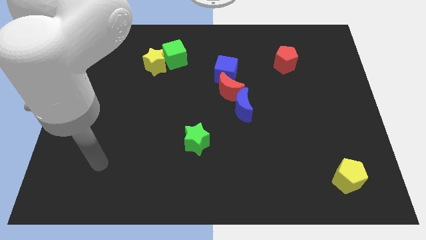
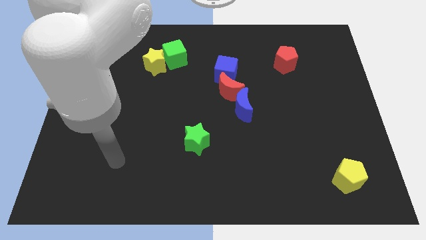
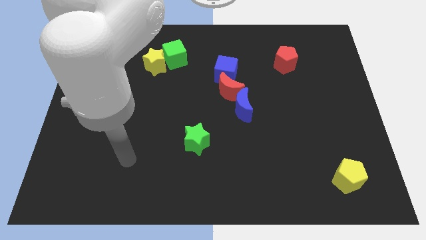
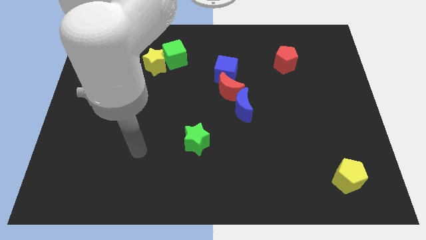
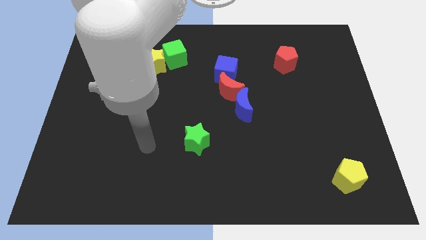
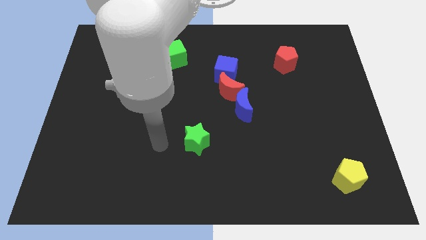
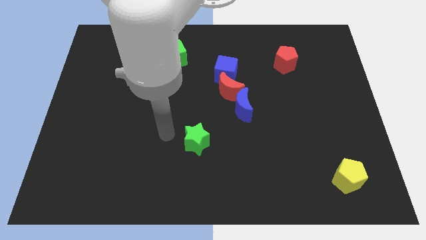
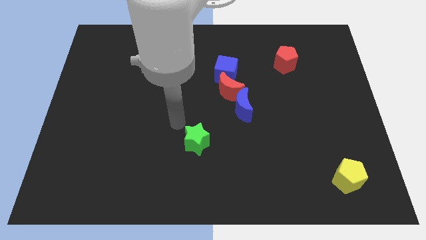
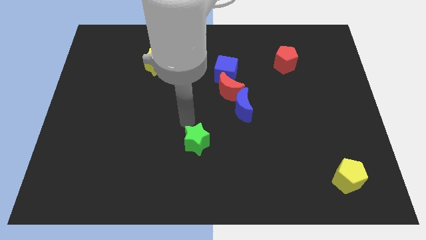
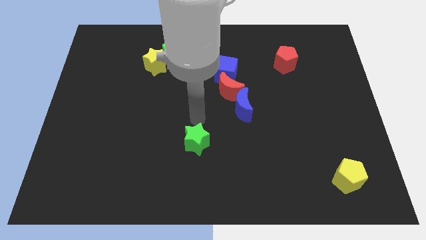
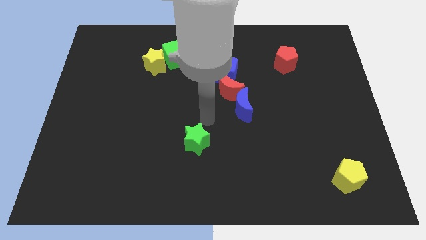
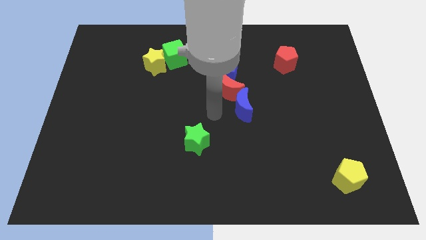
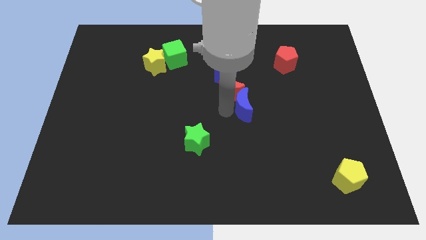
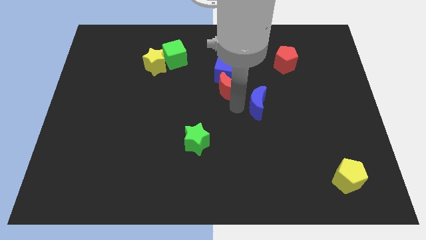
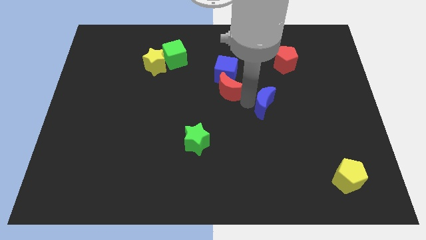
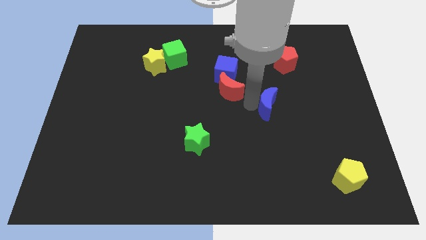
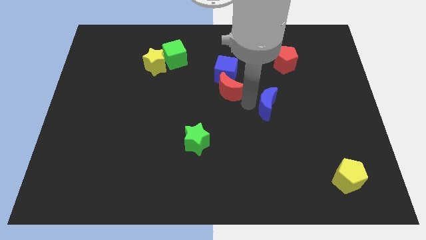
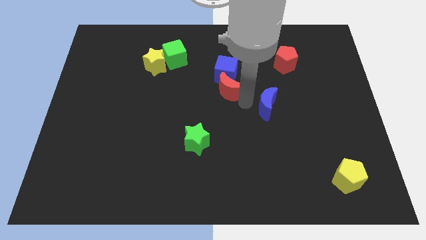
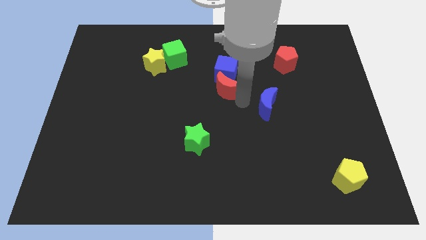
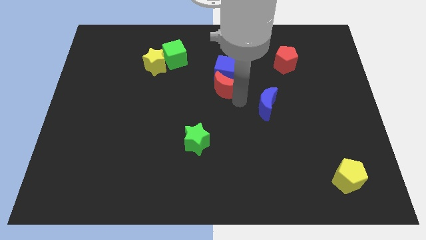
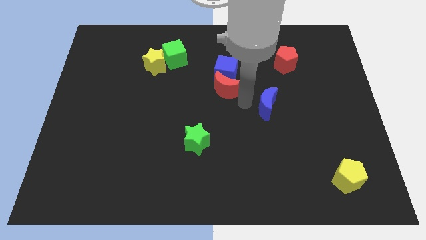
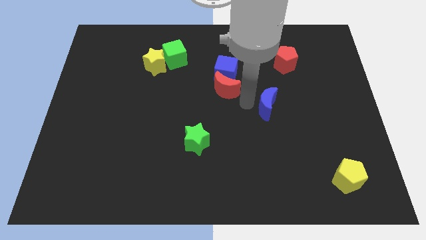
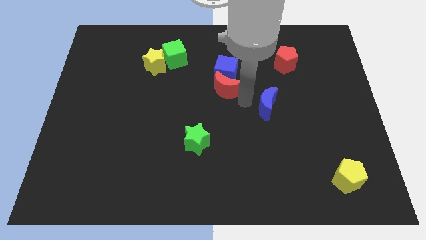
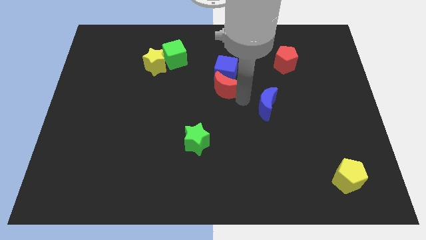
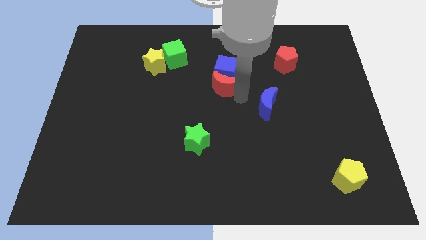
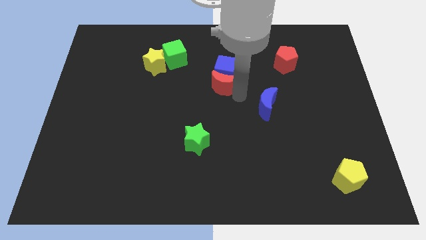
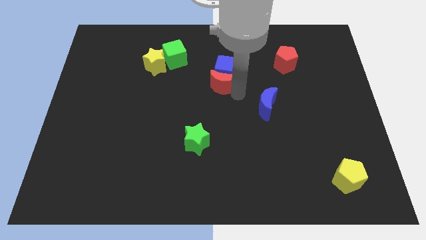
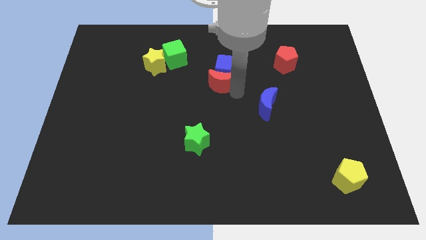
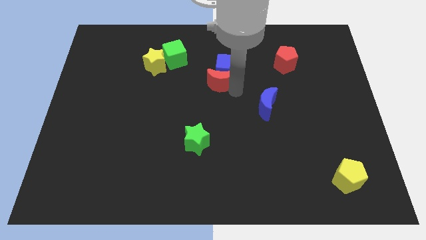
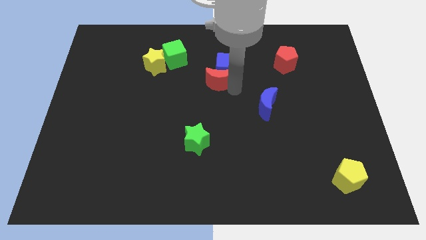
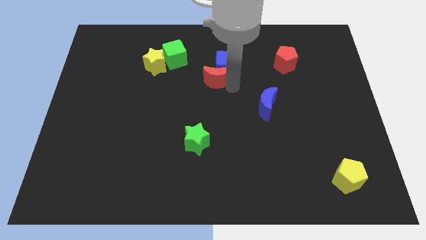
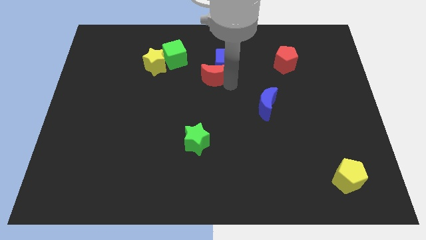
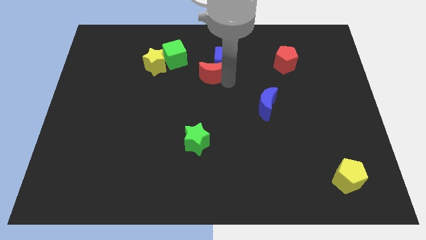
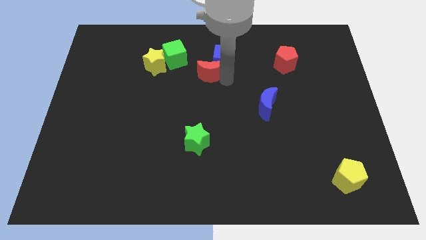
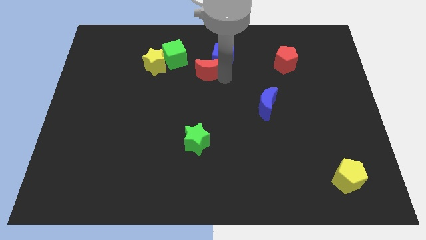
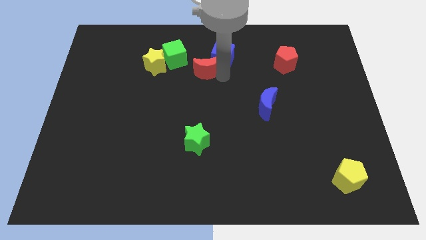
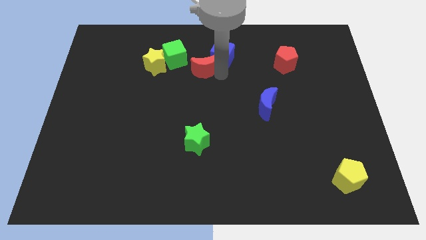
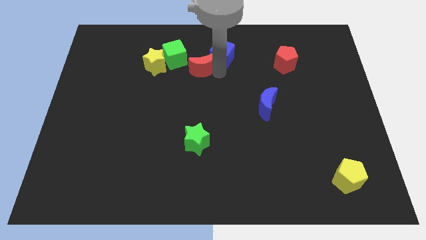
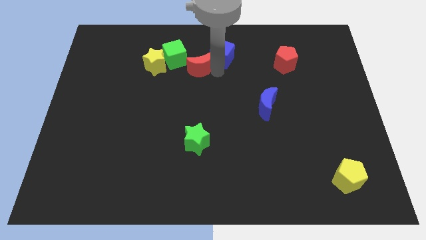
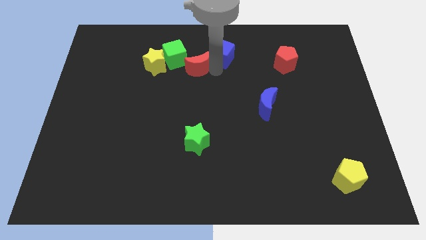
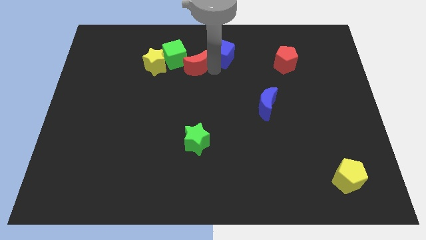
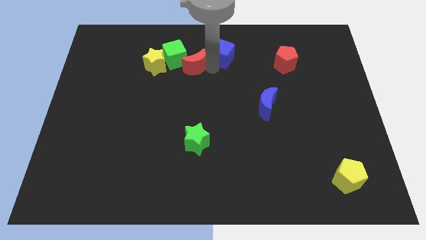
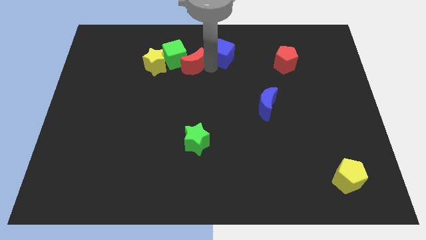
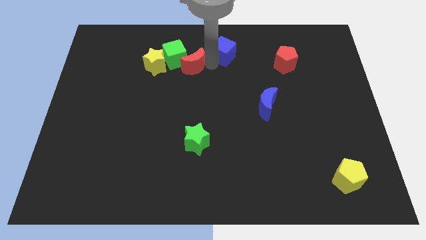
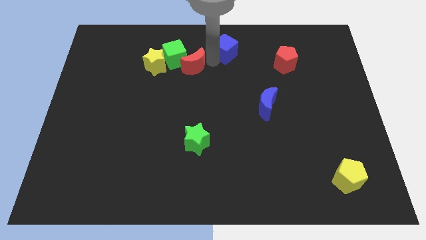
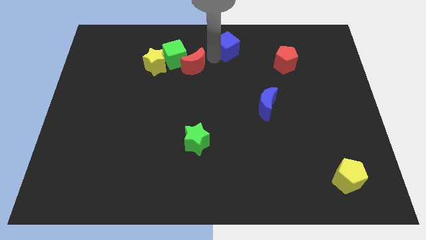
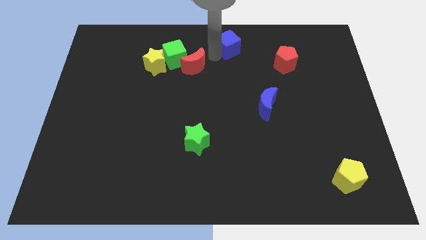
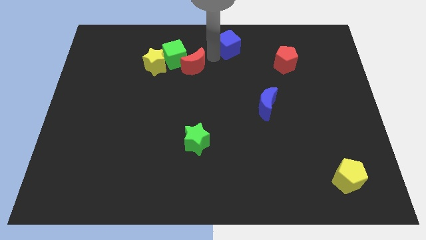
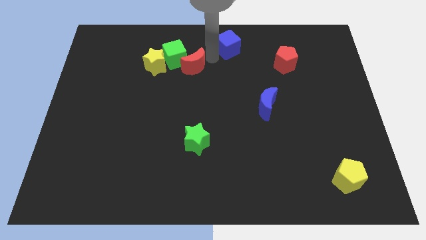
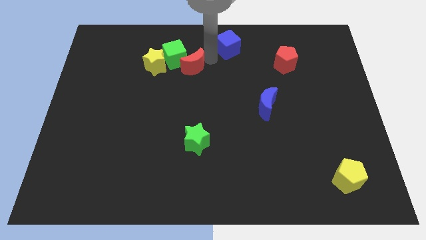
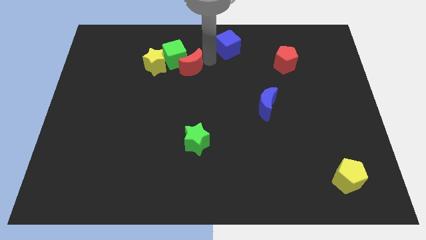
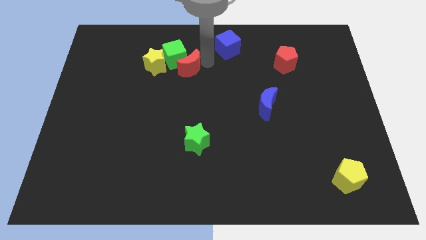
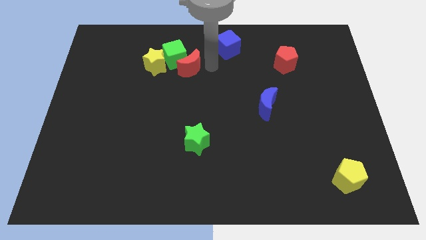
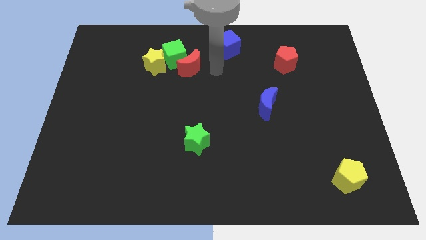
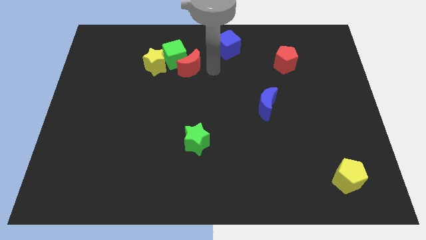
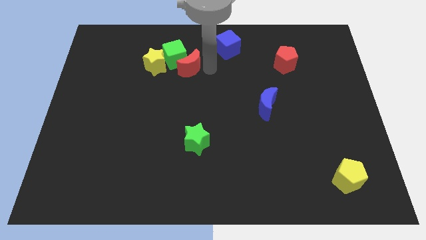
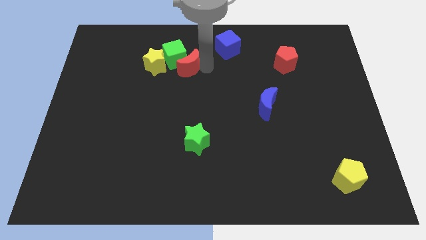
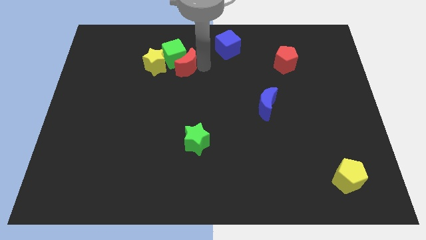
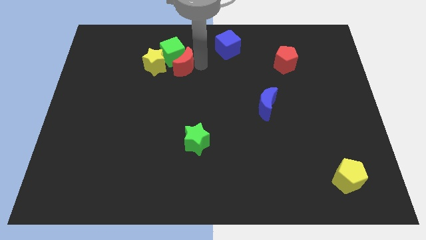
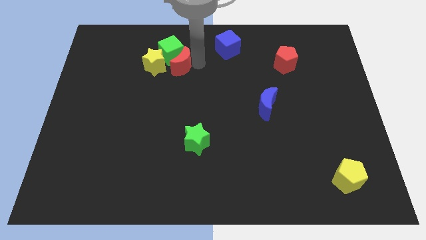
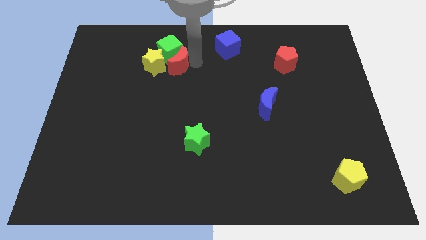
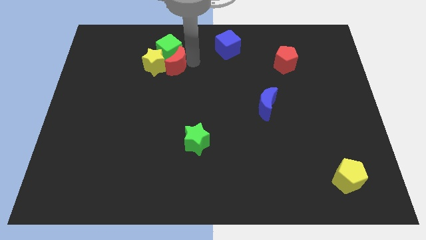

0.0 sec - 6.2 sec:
move the red moon to the yellow star

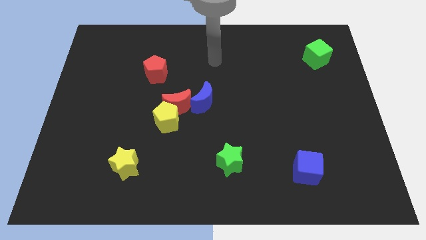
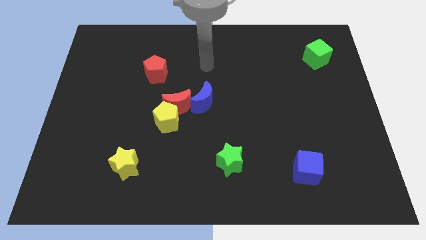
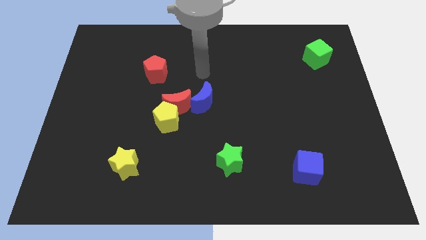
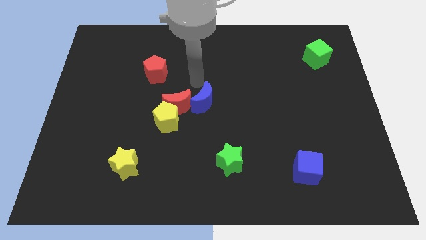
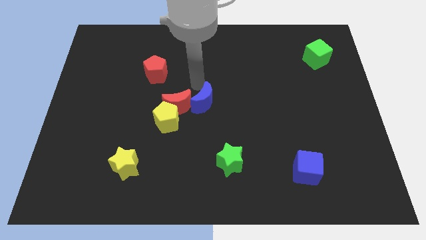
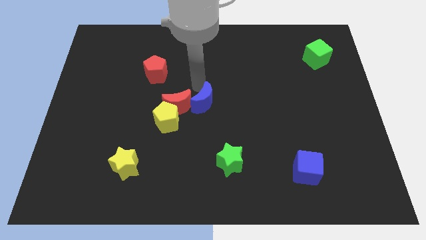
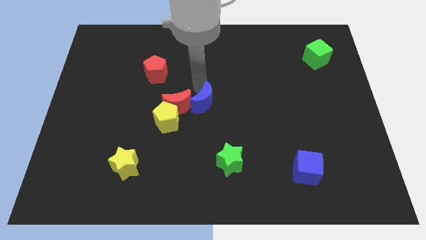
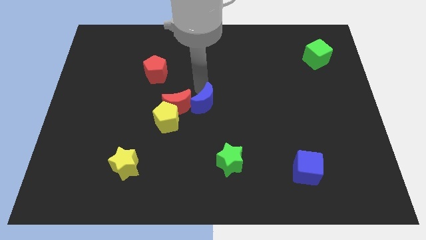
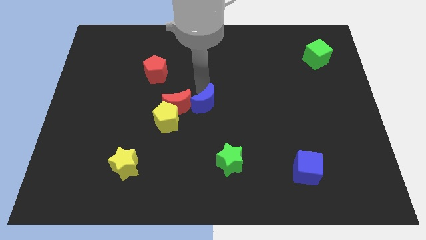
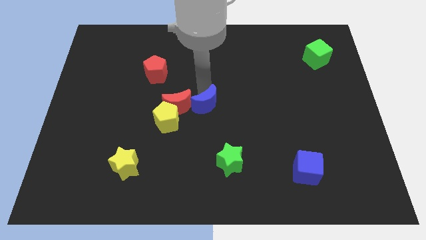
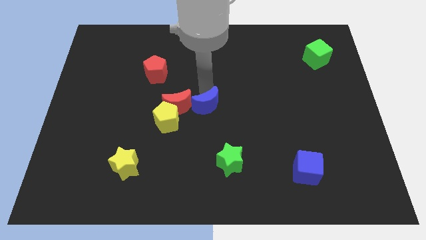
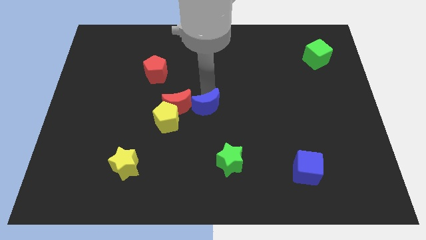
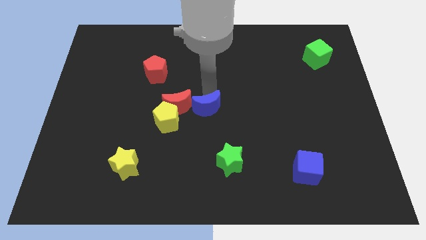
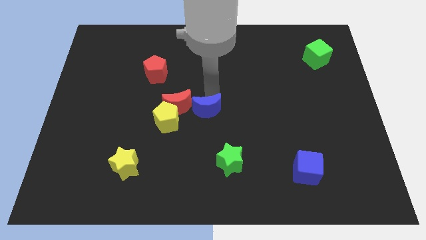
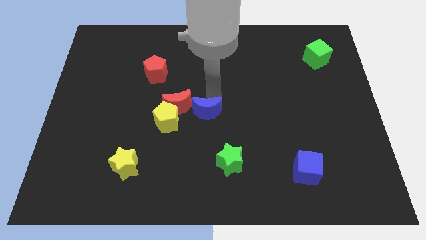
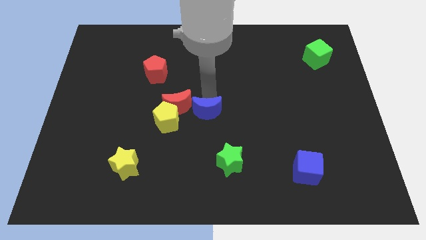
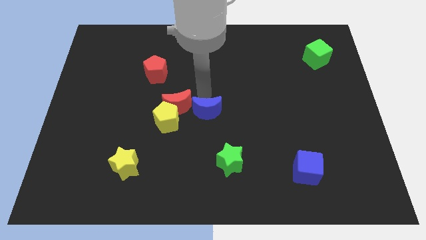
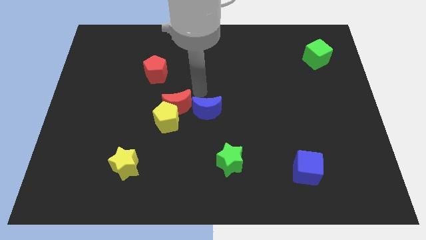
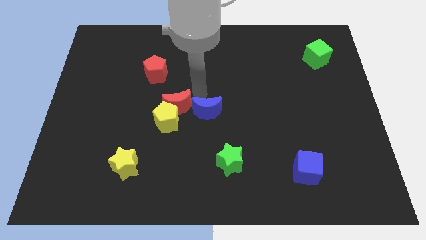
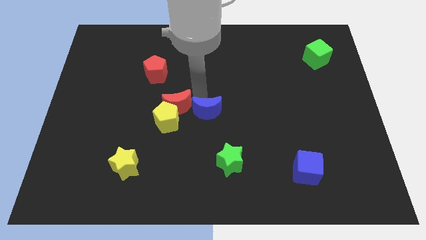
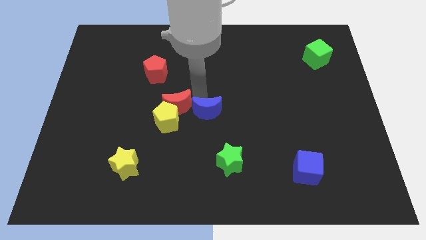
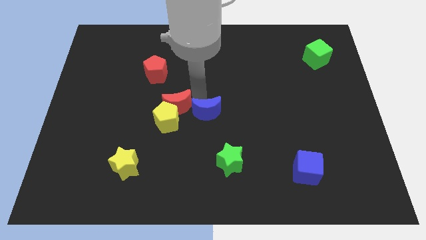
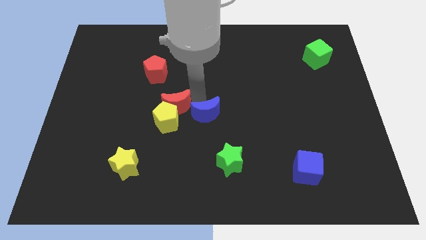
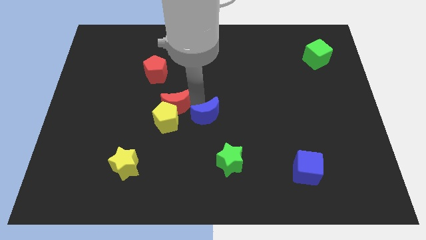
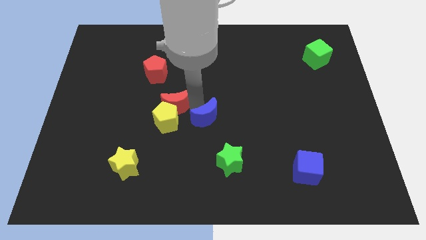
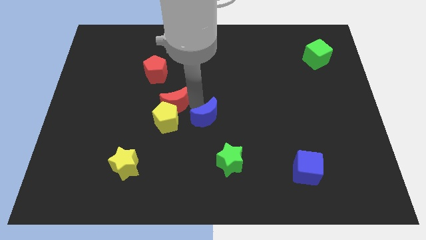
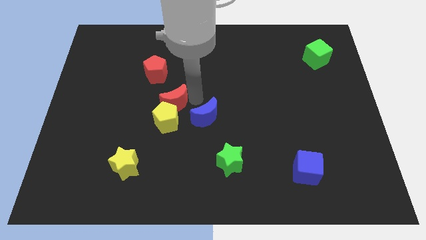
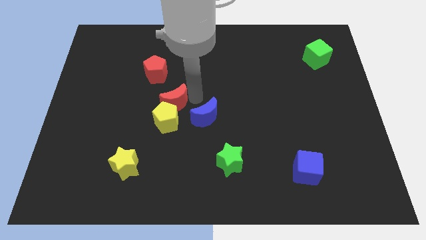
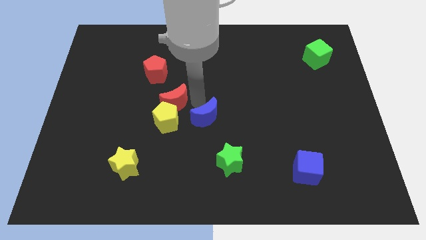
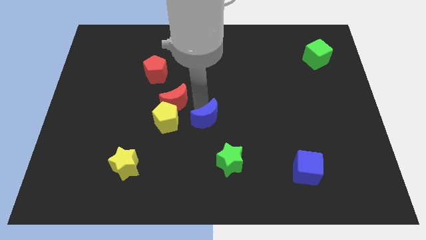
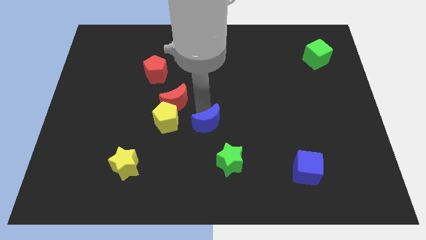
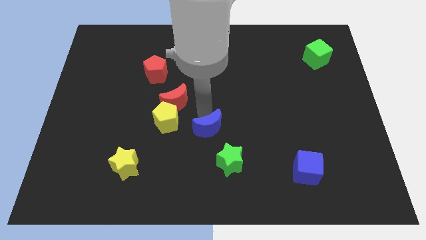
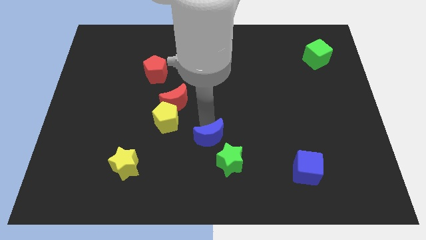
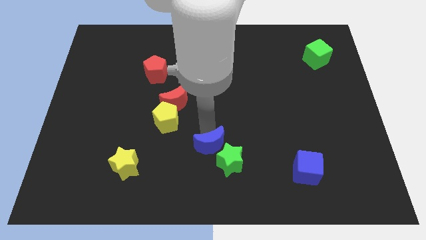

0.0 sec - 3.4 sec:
push the blue moon close to the green star
